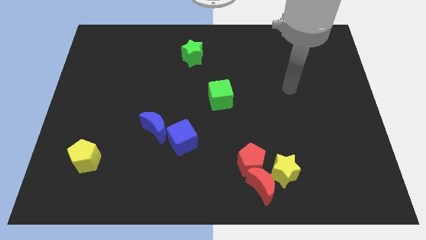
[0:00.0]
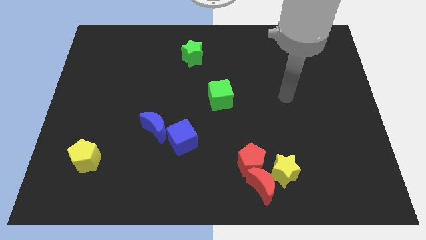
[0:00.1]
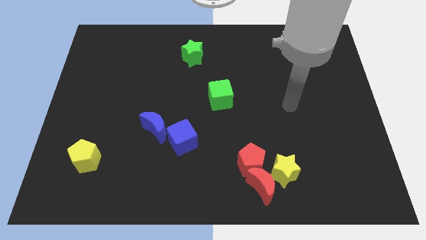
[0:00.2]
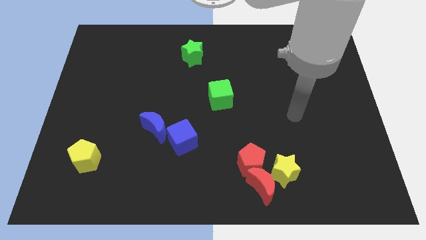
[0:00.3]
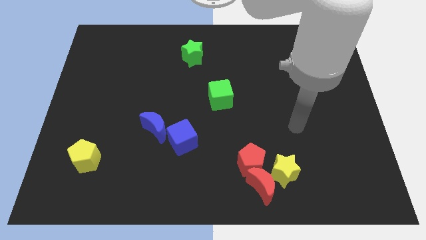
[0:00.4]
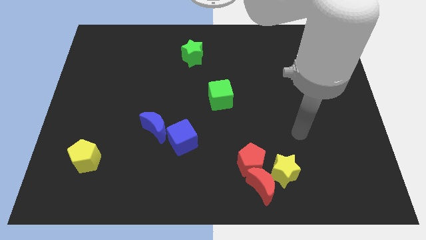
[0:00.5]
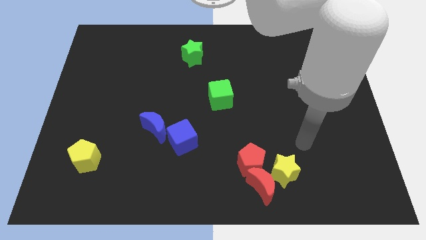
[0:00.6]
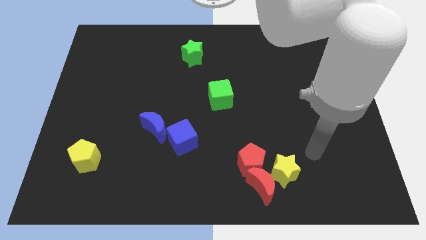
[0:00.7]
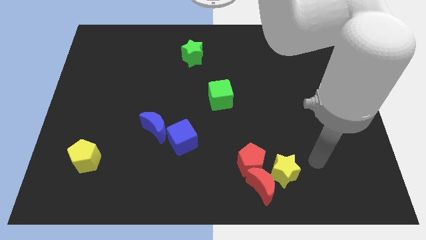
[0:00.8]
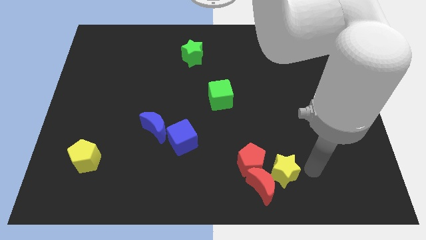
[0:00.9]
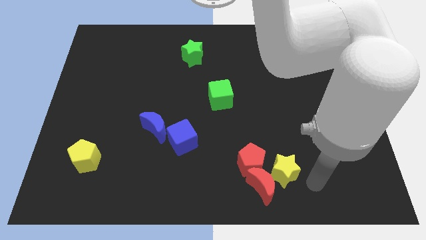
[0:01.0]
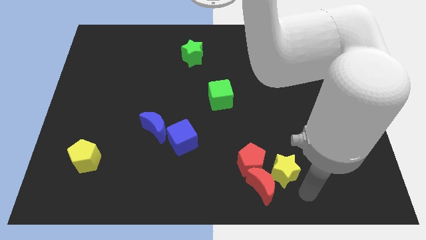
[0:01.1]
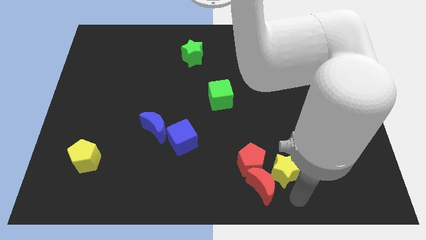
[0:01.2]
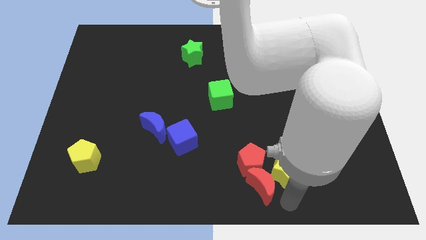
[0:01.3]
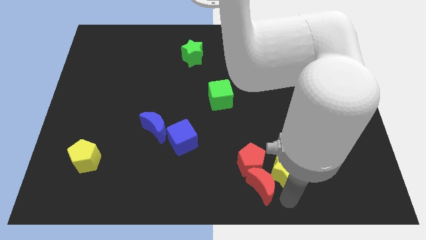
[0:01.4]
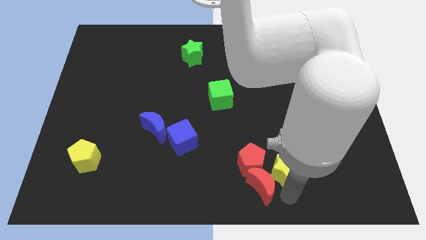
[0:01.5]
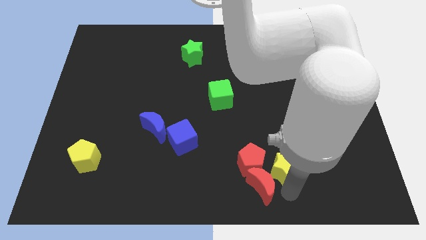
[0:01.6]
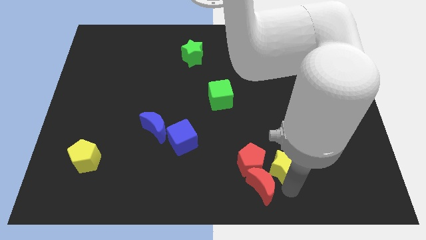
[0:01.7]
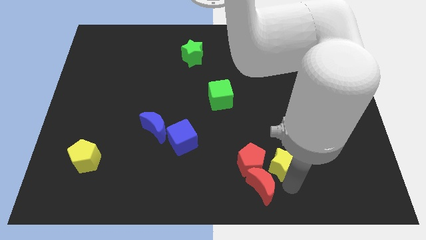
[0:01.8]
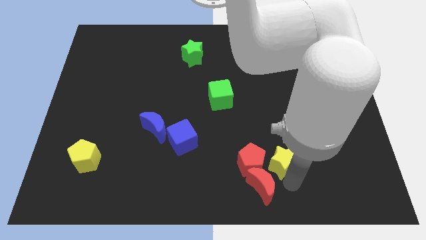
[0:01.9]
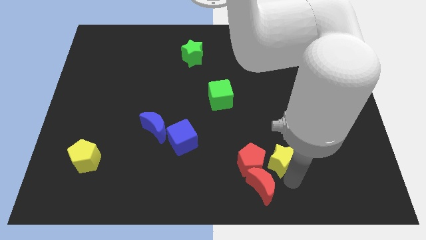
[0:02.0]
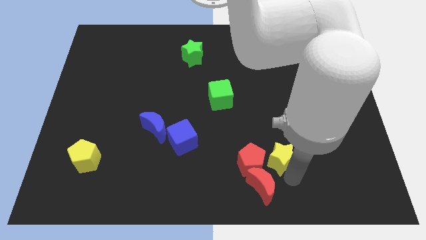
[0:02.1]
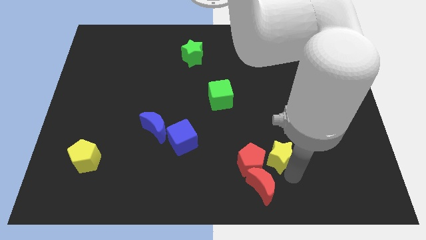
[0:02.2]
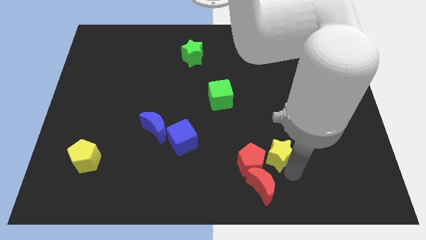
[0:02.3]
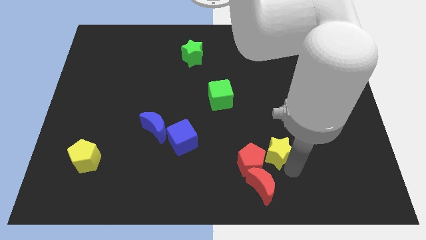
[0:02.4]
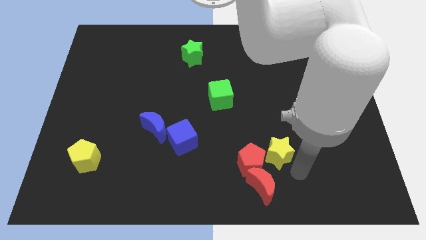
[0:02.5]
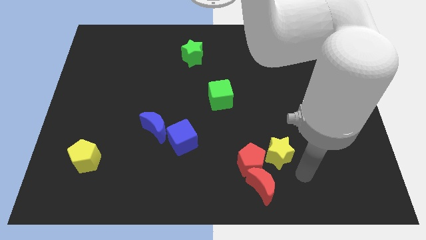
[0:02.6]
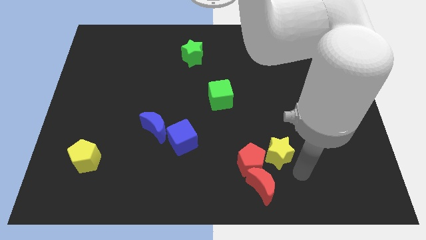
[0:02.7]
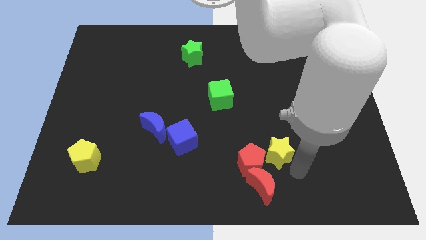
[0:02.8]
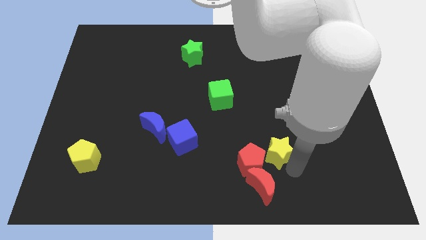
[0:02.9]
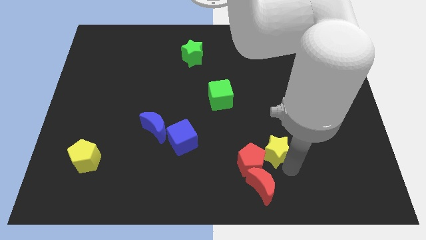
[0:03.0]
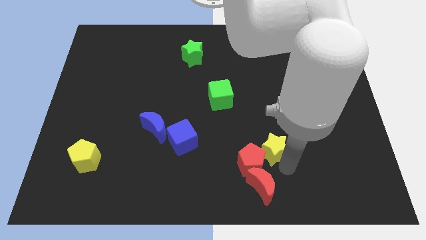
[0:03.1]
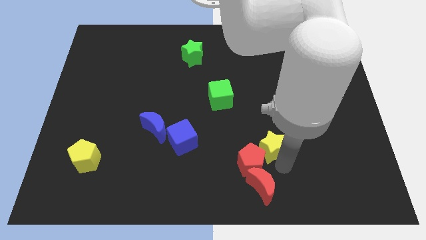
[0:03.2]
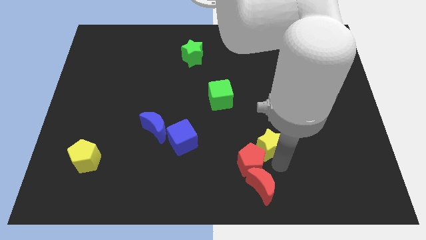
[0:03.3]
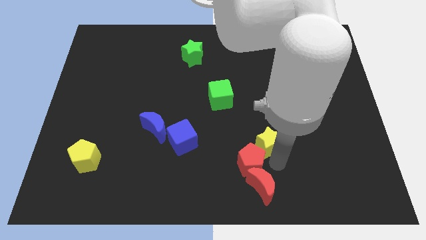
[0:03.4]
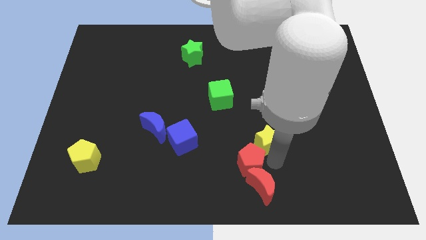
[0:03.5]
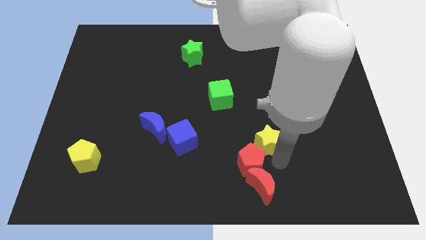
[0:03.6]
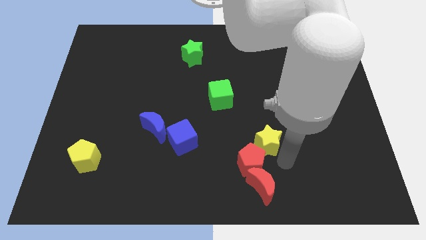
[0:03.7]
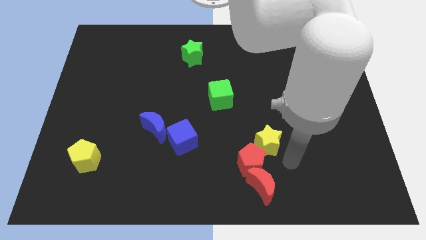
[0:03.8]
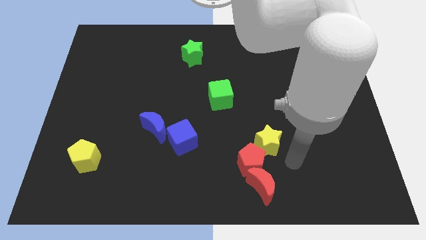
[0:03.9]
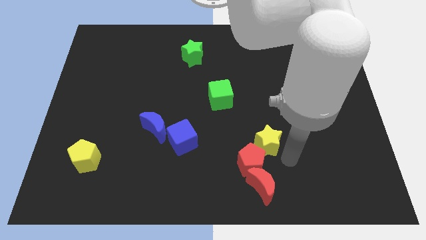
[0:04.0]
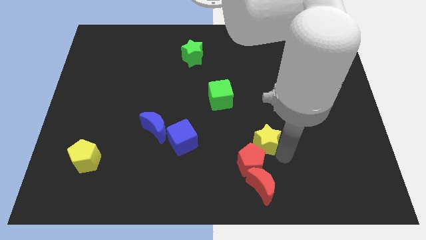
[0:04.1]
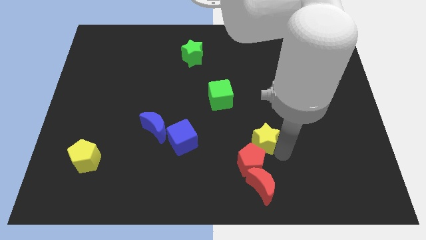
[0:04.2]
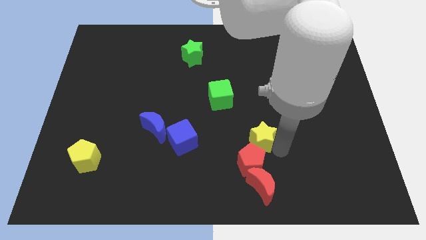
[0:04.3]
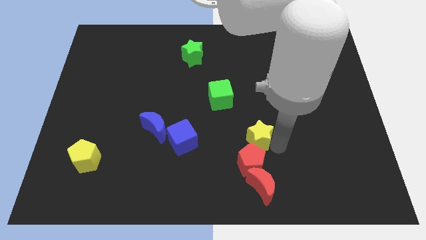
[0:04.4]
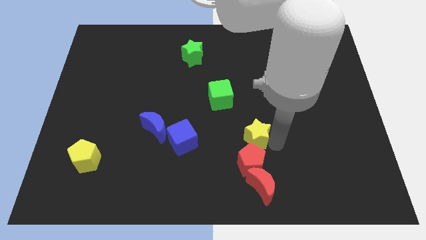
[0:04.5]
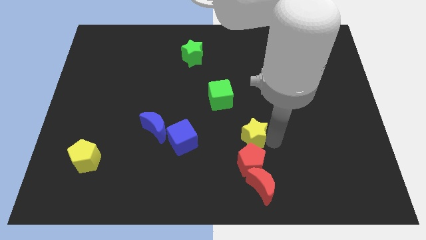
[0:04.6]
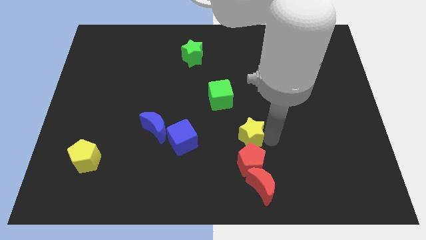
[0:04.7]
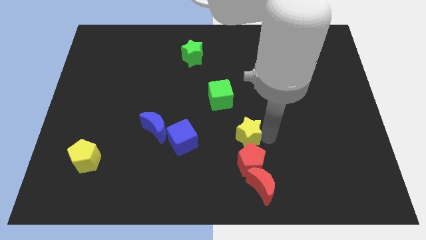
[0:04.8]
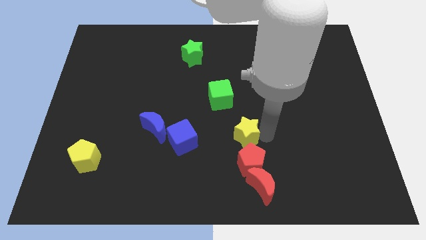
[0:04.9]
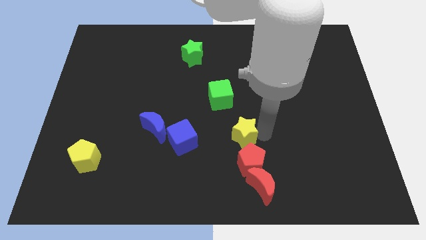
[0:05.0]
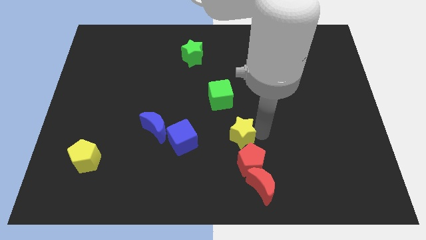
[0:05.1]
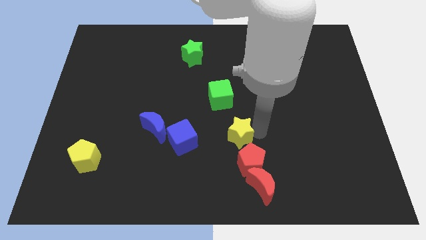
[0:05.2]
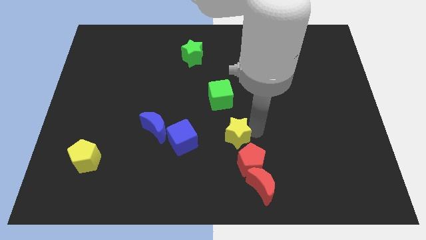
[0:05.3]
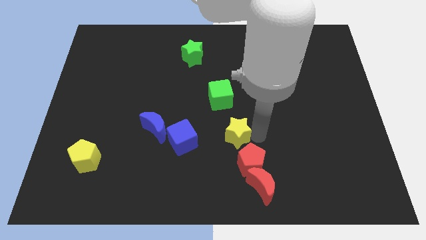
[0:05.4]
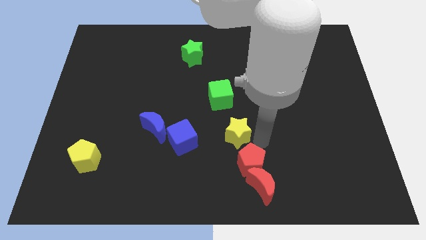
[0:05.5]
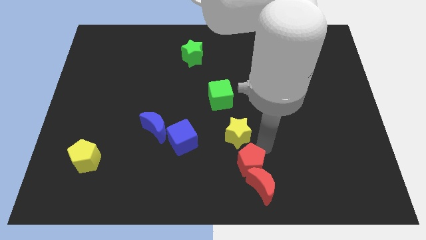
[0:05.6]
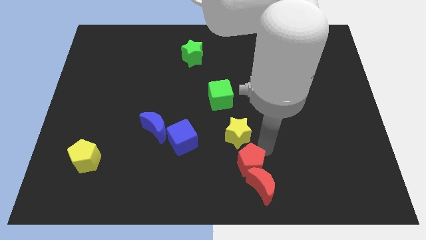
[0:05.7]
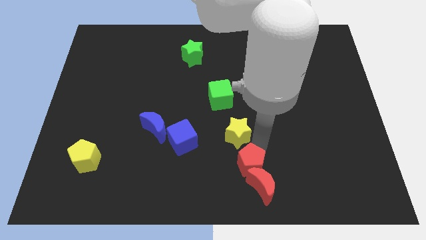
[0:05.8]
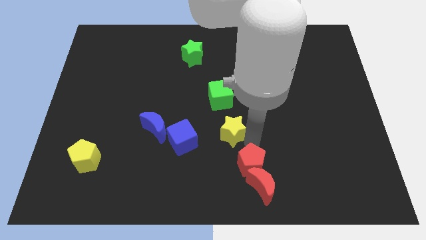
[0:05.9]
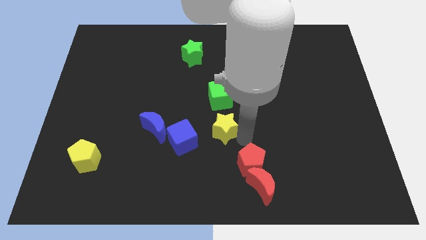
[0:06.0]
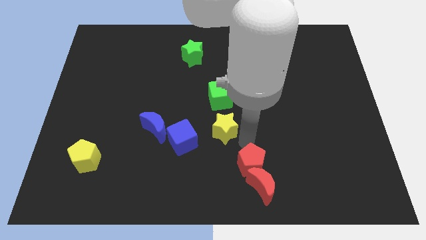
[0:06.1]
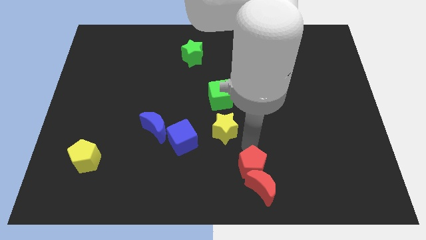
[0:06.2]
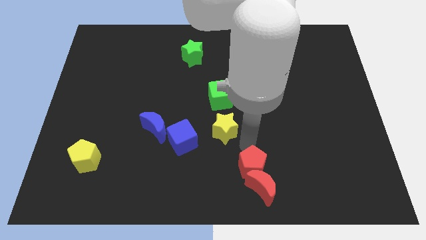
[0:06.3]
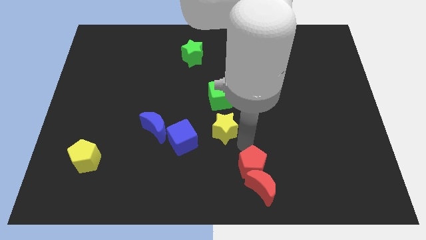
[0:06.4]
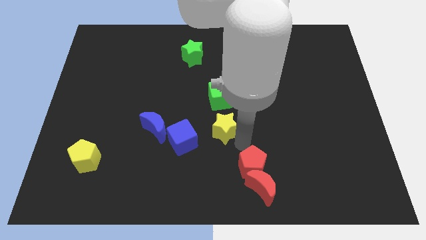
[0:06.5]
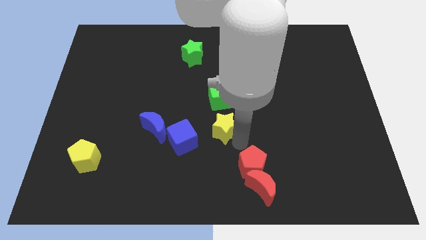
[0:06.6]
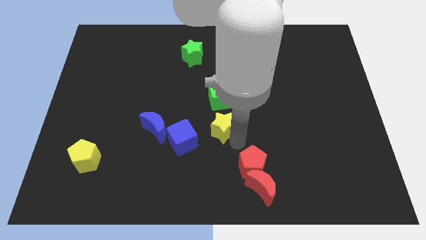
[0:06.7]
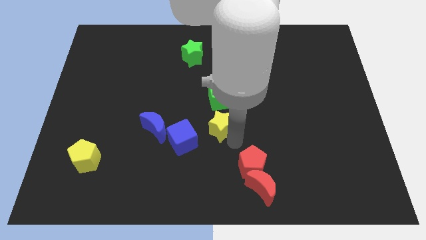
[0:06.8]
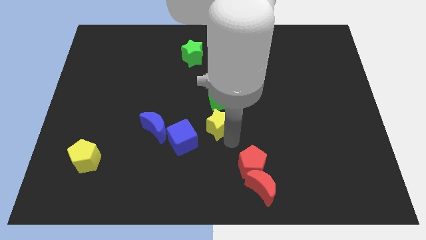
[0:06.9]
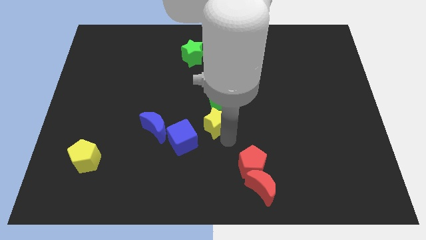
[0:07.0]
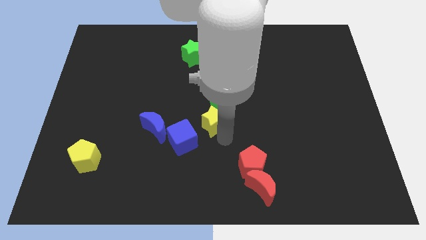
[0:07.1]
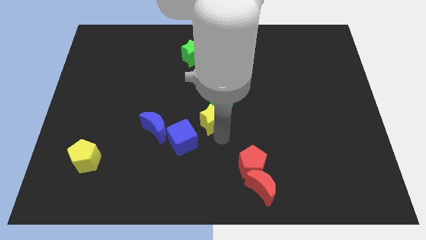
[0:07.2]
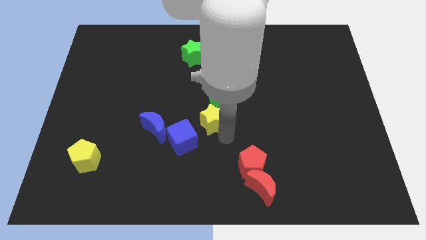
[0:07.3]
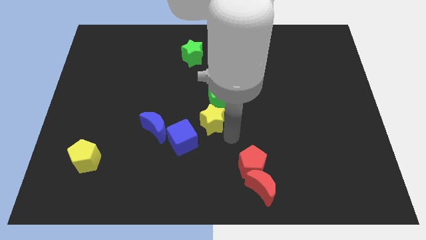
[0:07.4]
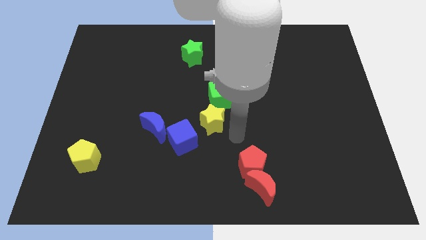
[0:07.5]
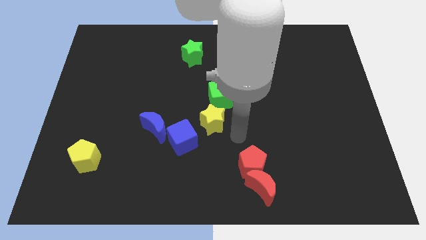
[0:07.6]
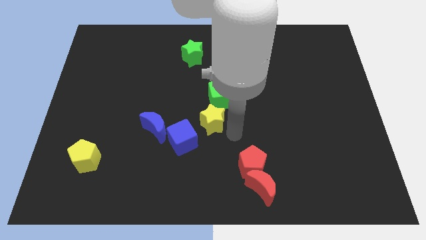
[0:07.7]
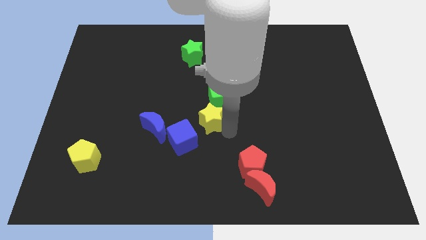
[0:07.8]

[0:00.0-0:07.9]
slide the yellow star upwards and to the left
